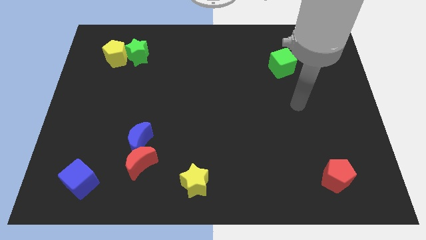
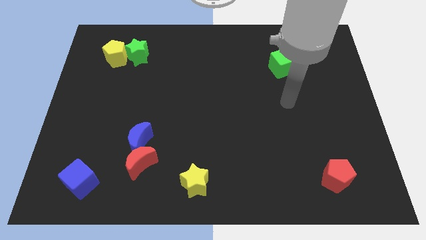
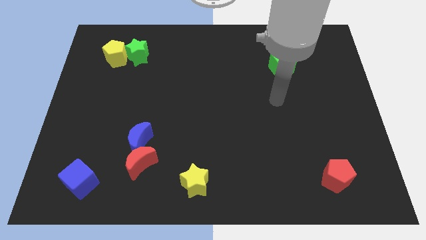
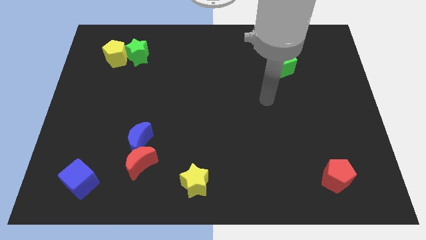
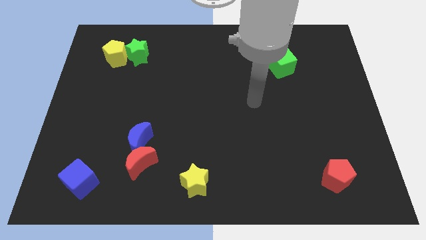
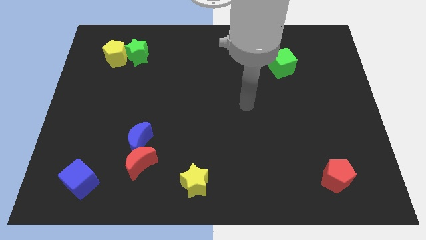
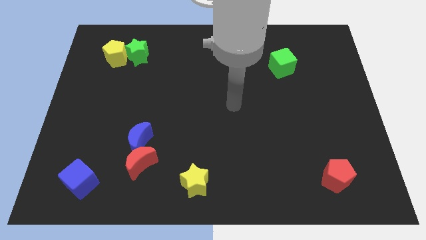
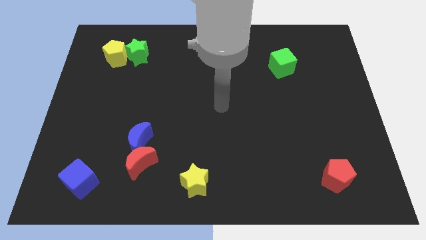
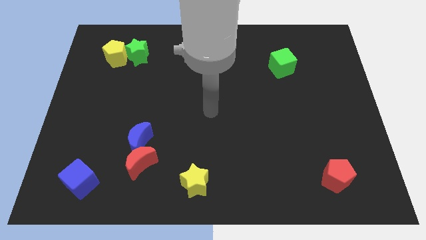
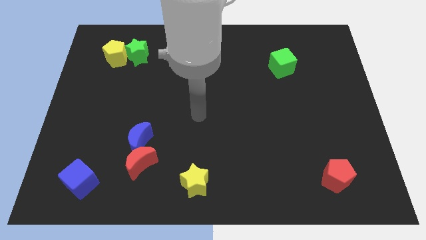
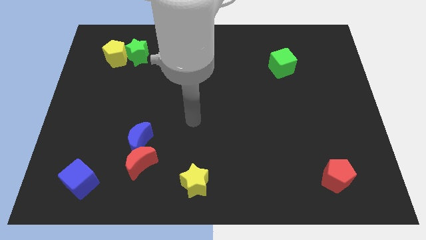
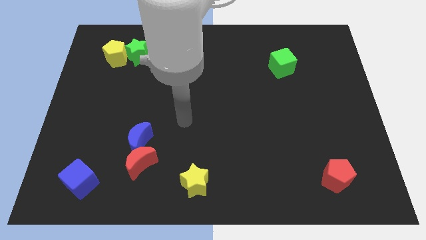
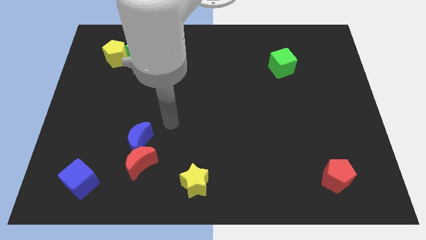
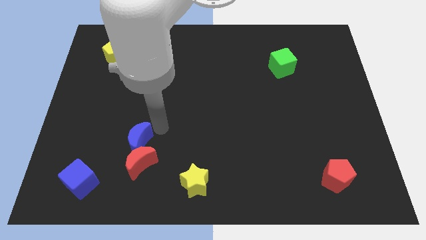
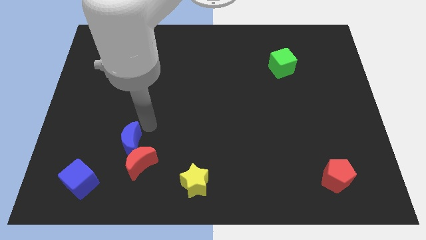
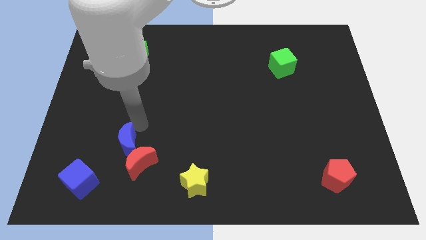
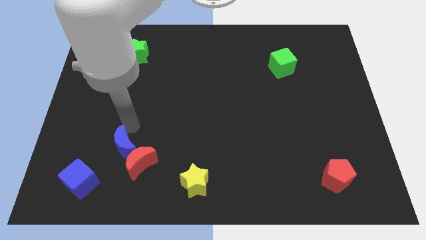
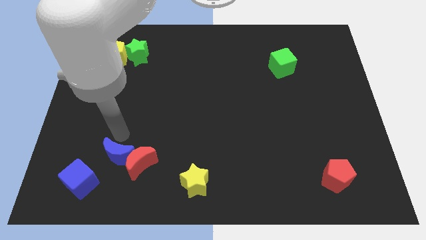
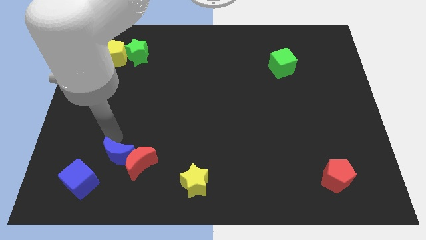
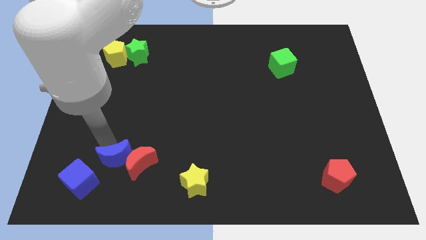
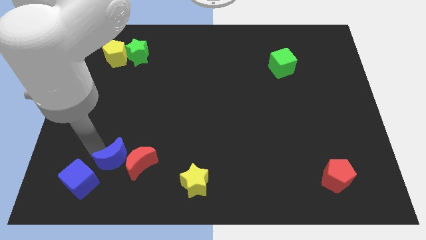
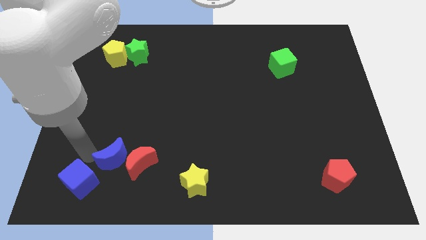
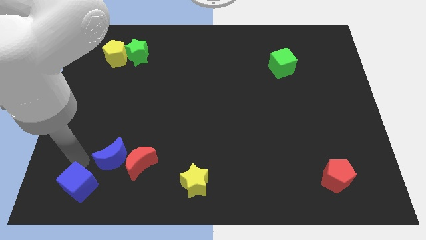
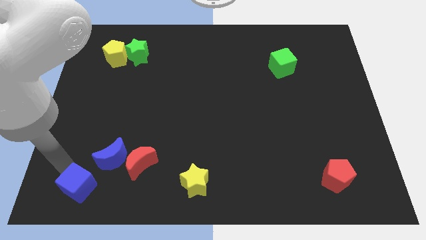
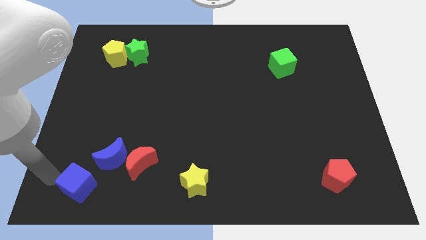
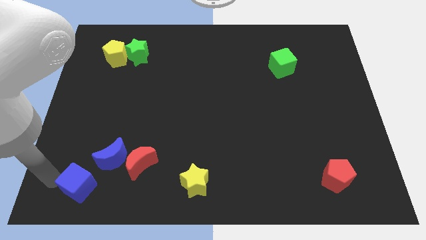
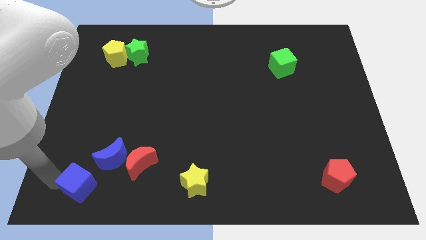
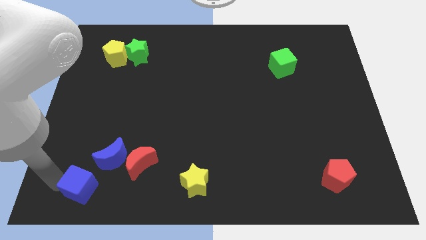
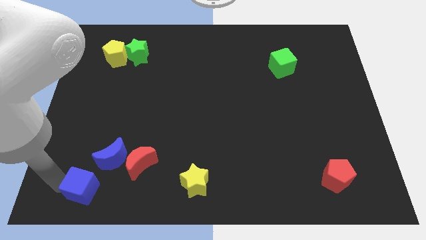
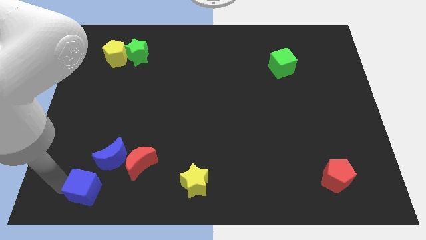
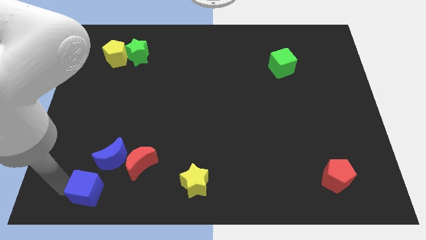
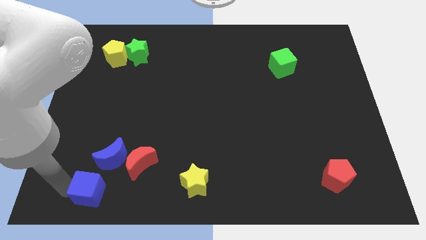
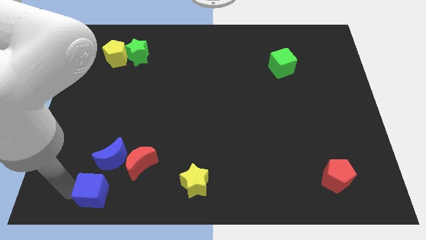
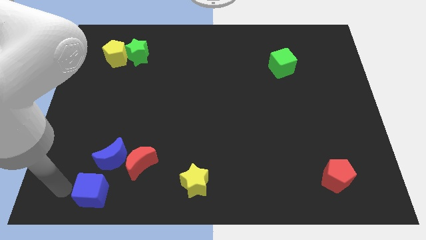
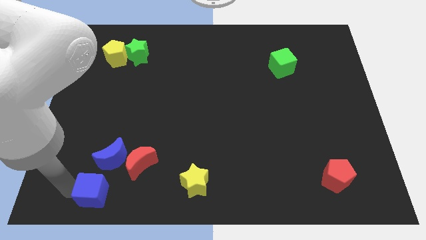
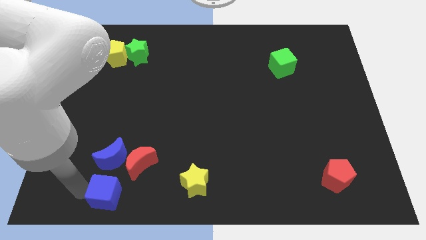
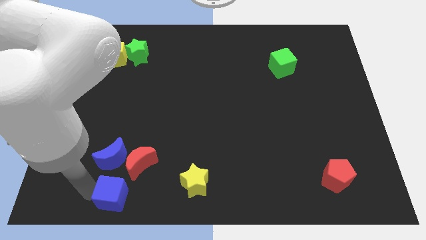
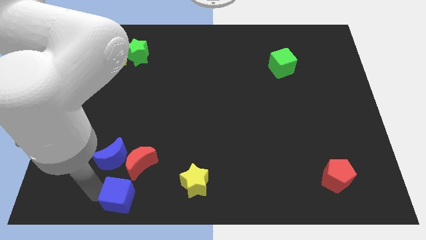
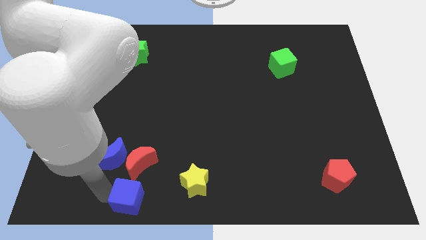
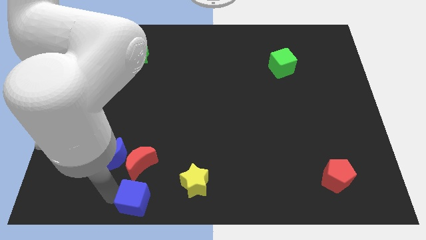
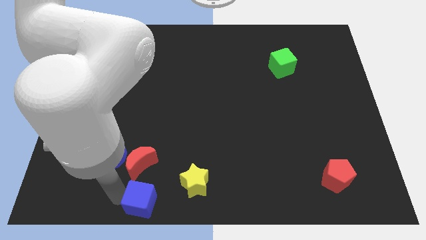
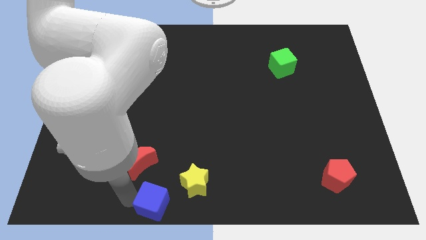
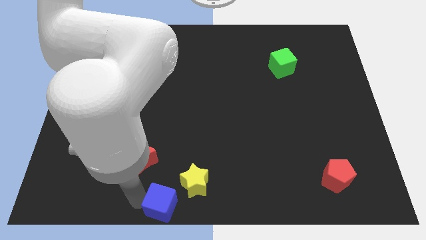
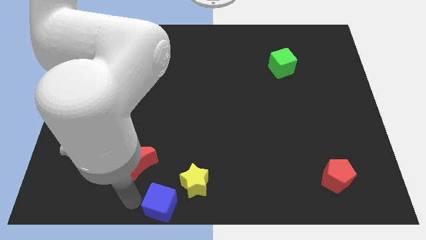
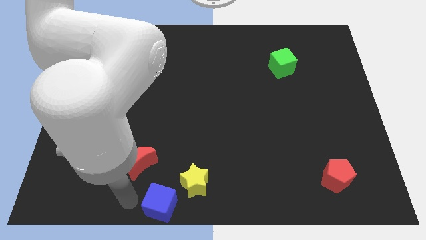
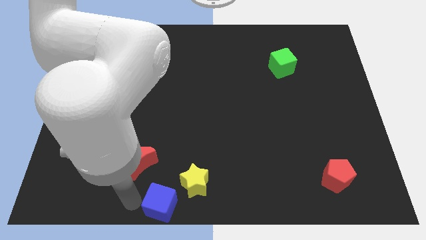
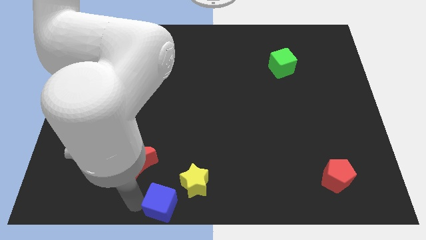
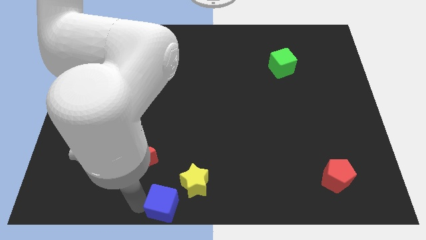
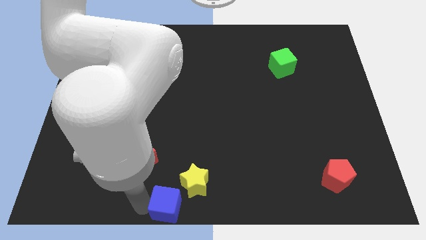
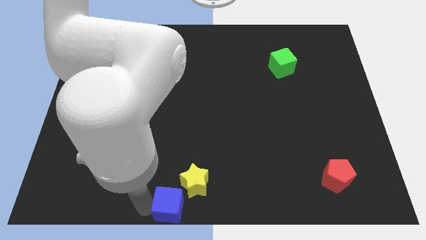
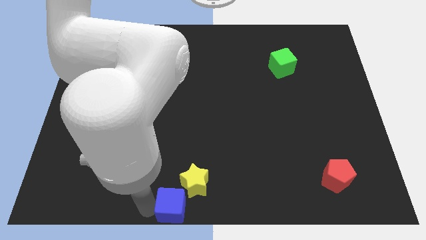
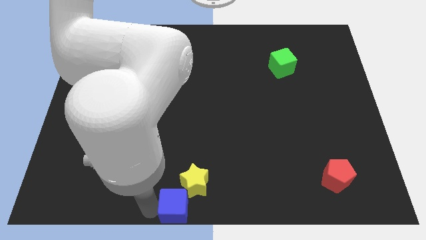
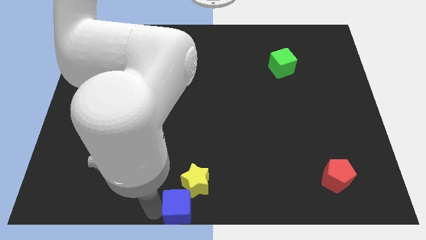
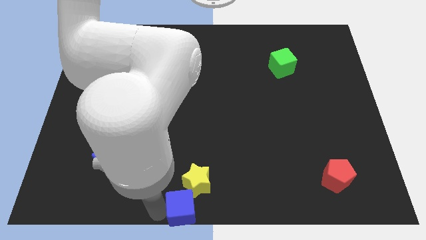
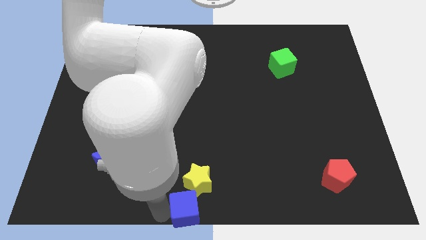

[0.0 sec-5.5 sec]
slide the blue cube right

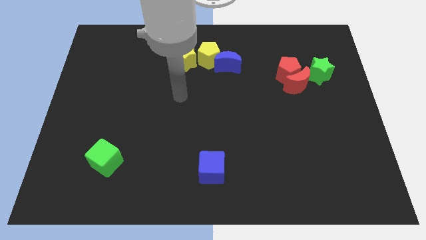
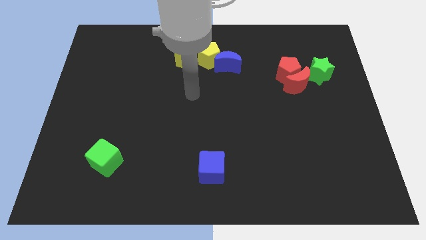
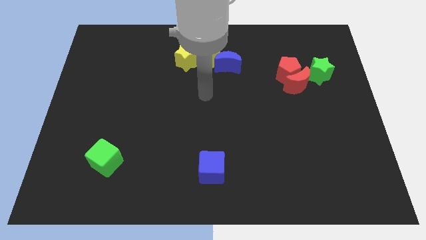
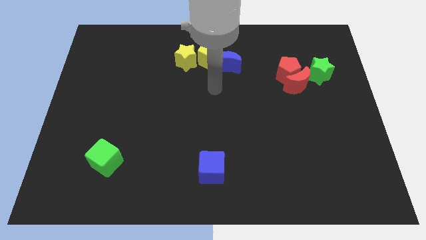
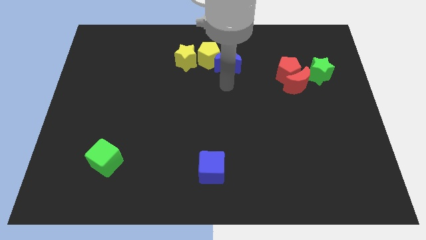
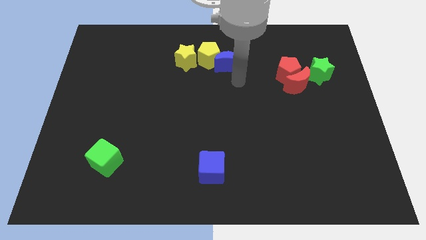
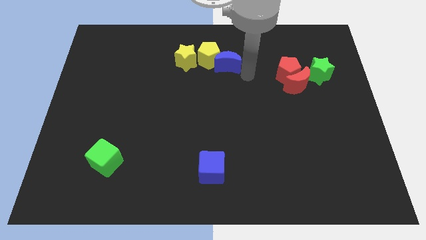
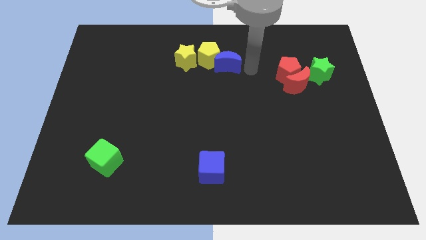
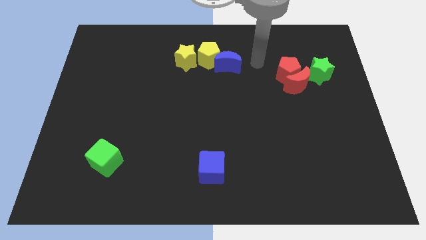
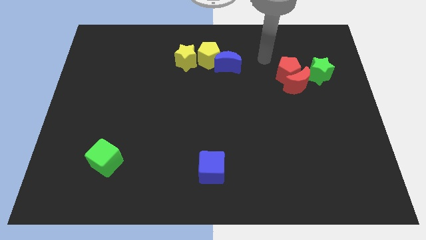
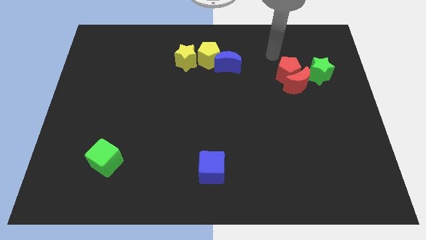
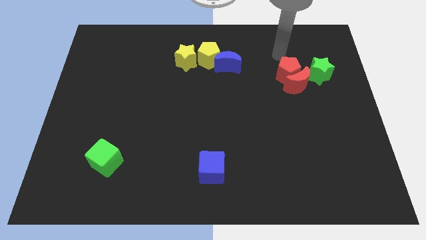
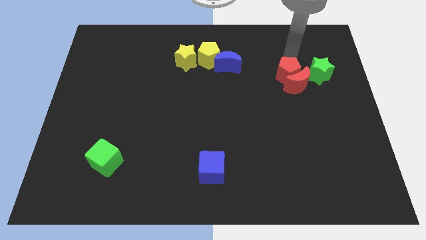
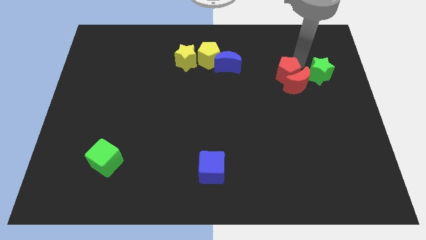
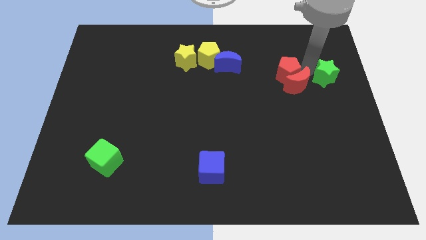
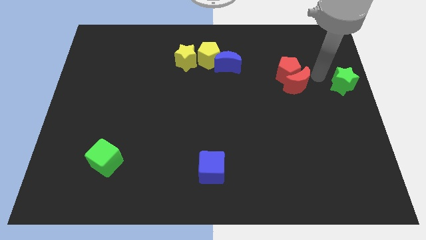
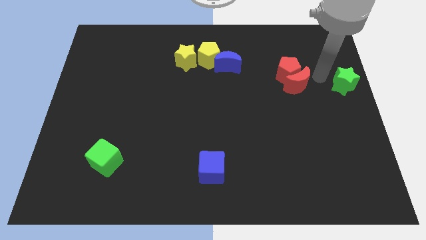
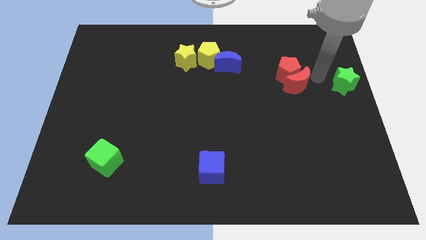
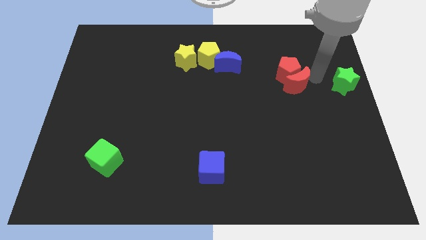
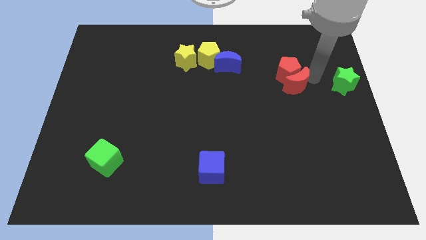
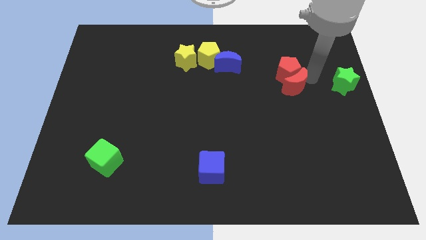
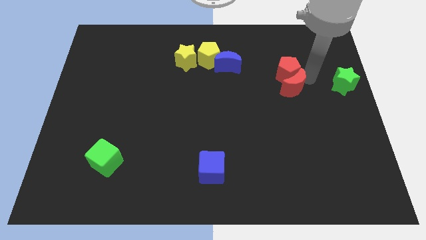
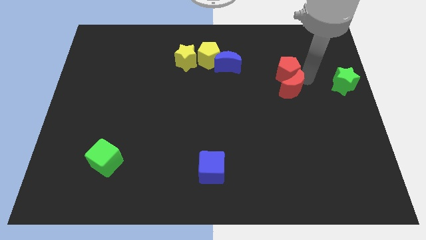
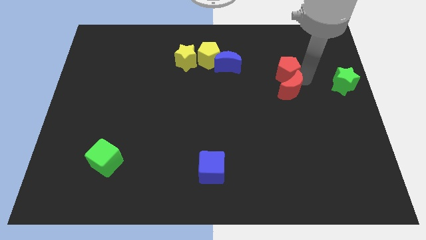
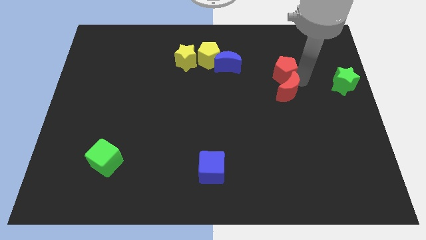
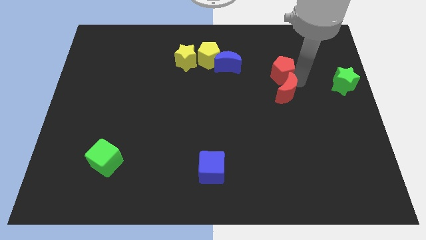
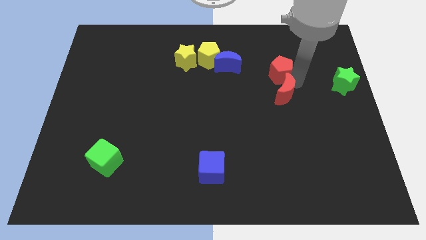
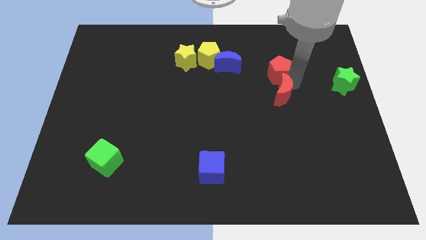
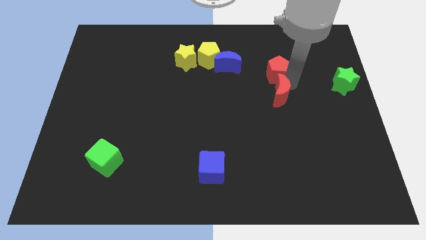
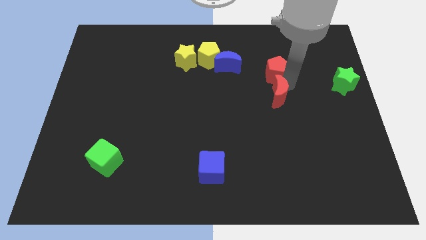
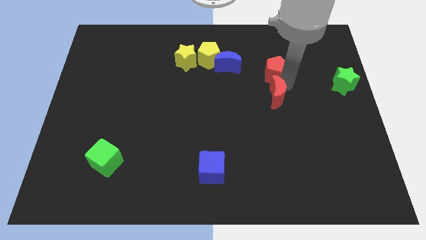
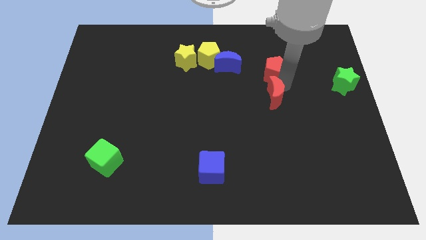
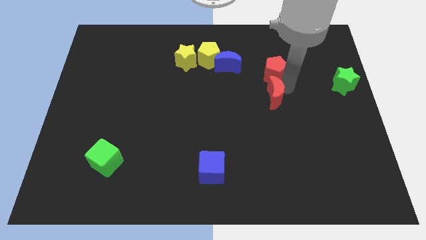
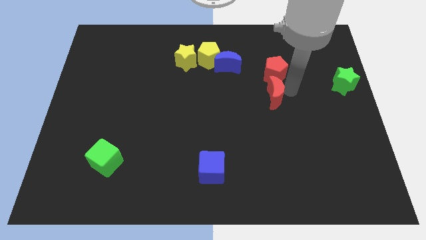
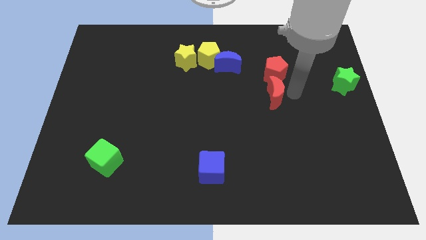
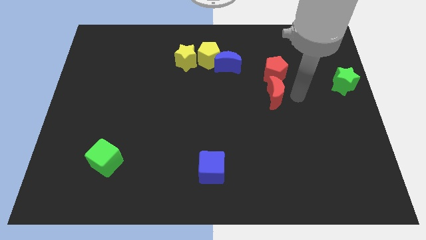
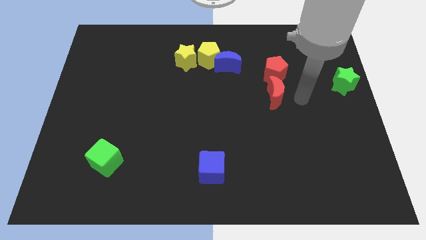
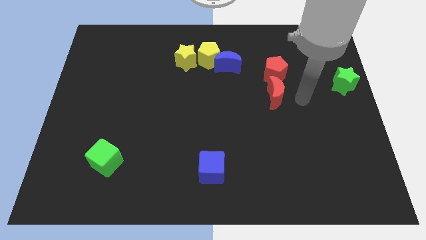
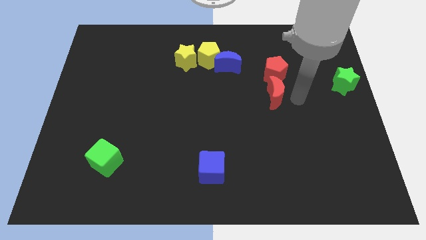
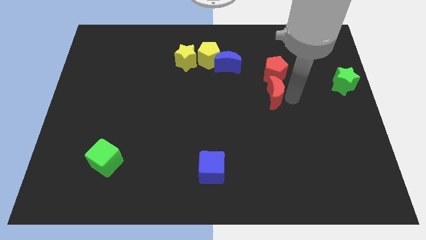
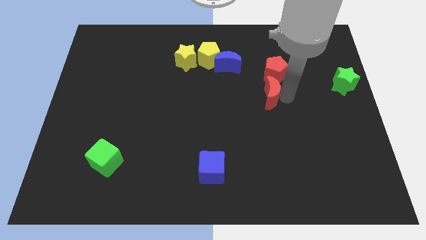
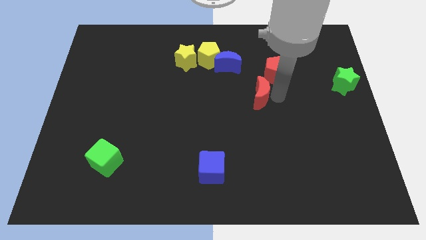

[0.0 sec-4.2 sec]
slightly push the red moon to the left
